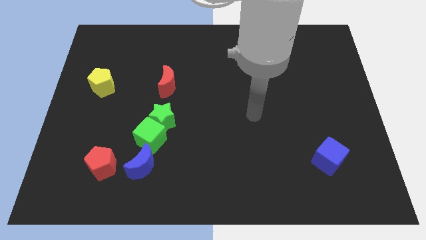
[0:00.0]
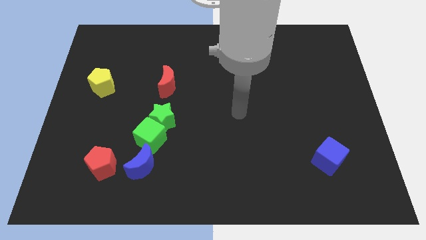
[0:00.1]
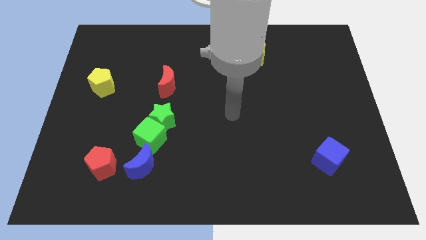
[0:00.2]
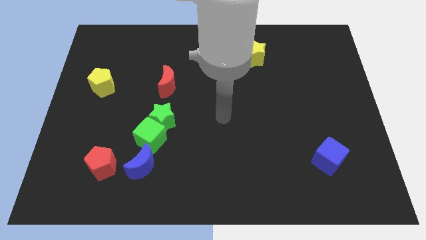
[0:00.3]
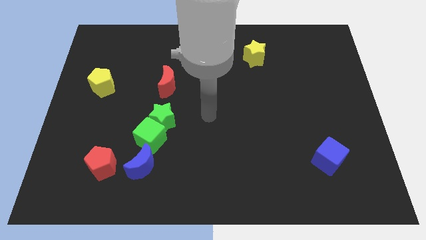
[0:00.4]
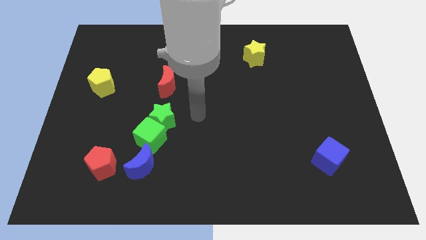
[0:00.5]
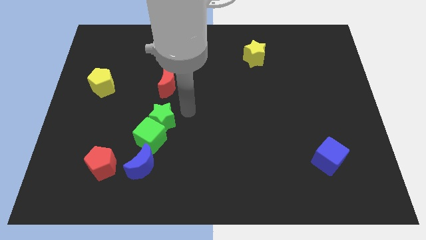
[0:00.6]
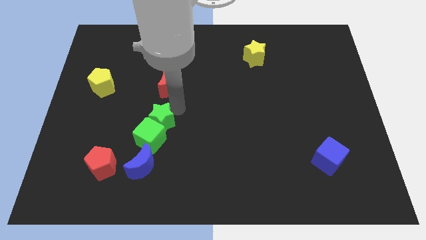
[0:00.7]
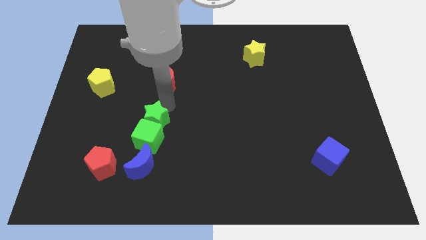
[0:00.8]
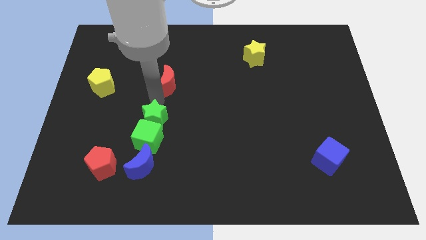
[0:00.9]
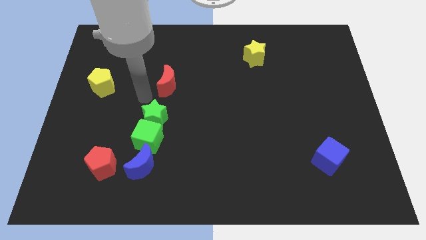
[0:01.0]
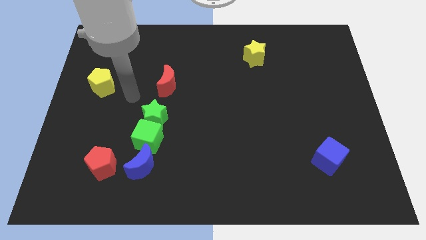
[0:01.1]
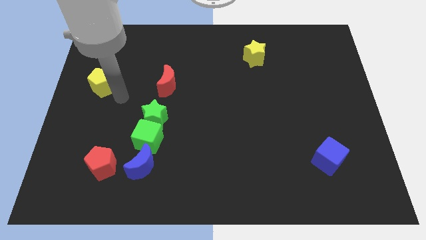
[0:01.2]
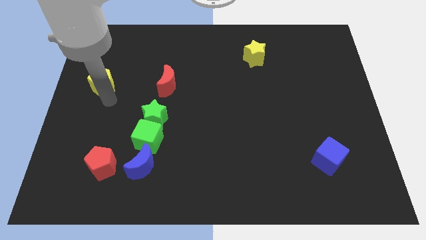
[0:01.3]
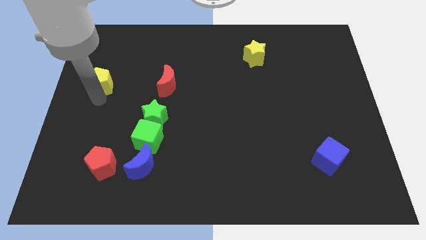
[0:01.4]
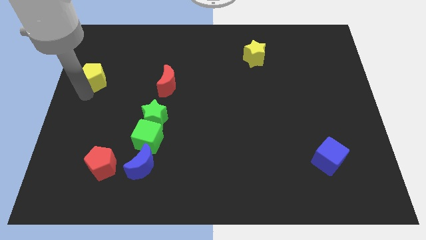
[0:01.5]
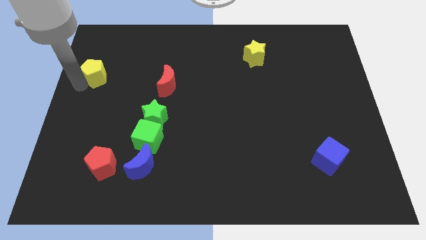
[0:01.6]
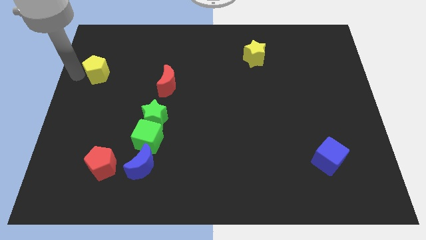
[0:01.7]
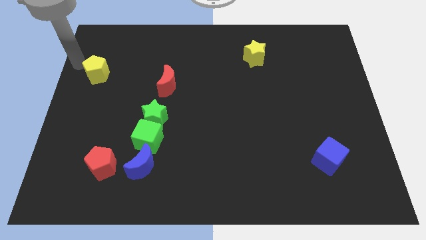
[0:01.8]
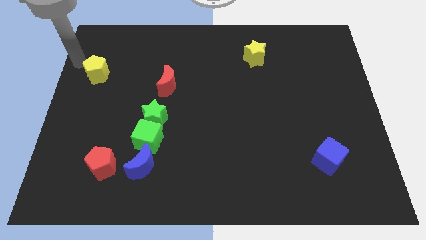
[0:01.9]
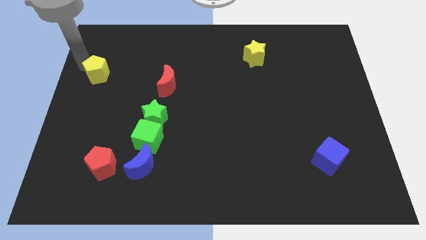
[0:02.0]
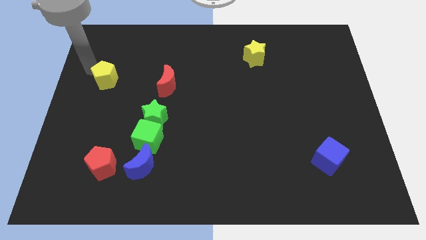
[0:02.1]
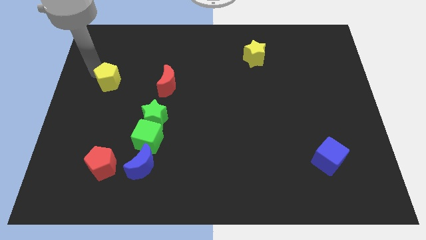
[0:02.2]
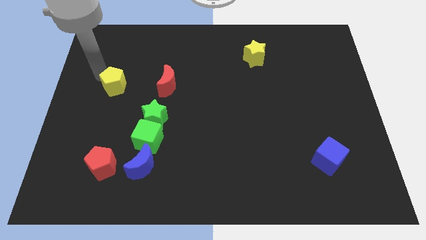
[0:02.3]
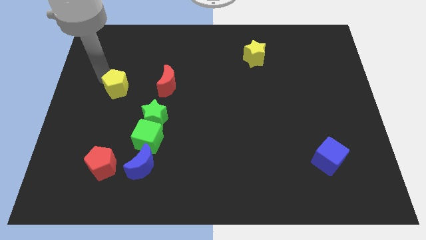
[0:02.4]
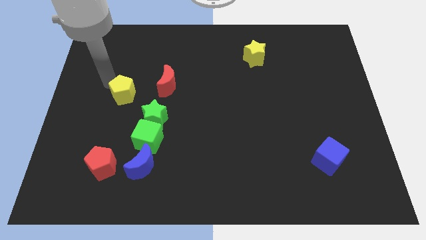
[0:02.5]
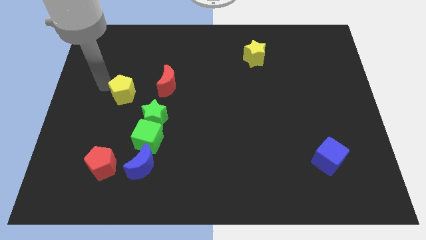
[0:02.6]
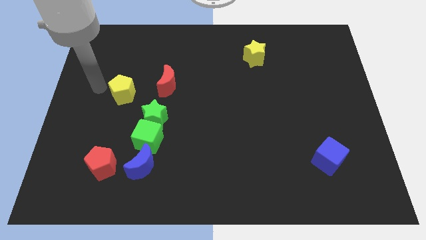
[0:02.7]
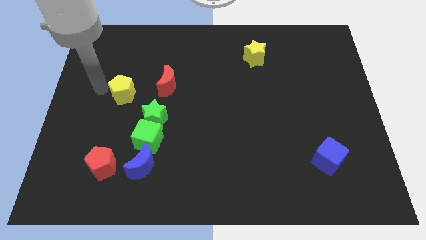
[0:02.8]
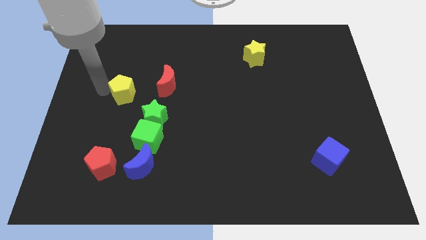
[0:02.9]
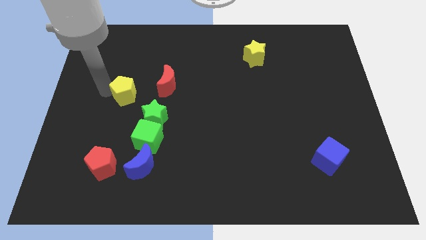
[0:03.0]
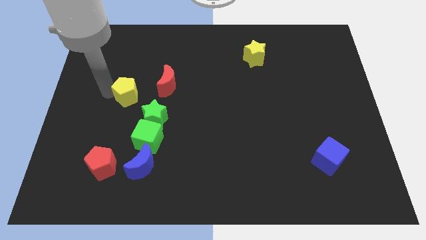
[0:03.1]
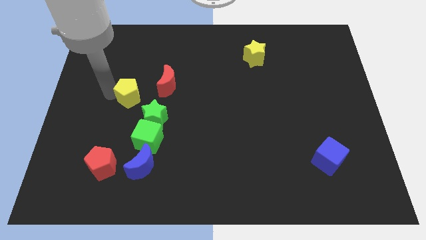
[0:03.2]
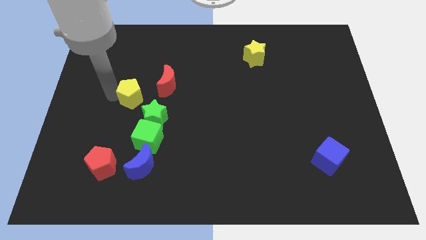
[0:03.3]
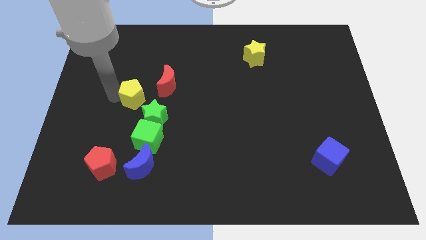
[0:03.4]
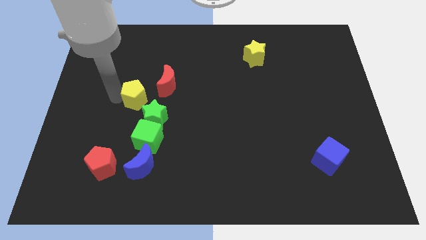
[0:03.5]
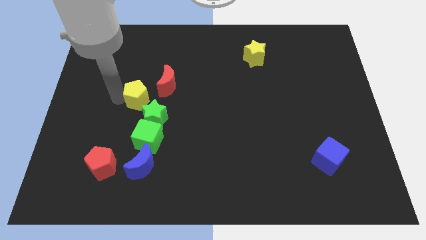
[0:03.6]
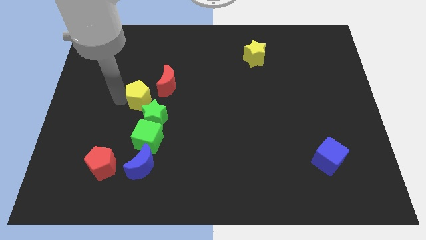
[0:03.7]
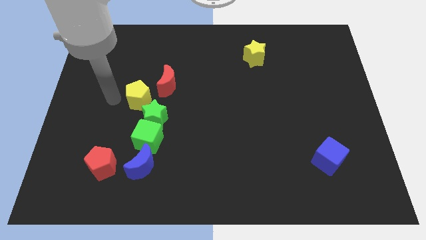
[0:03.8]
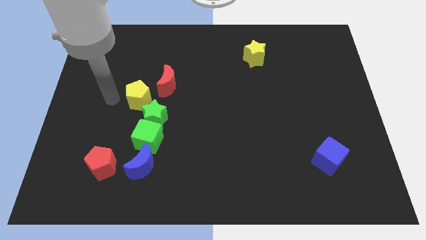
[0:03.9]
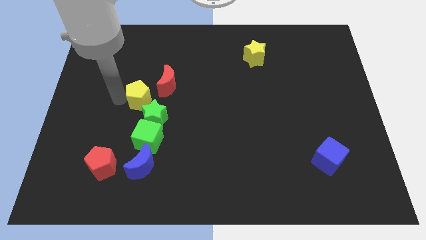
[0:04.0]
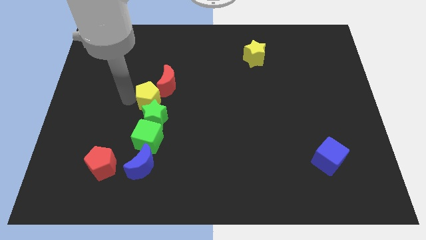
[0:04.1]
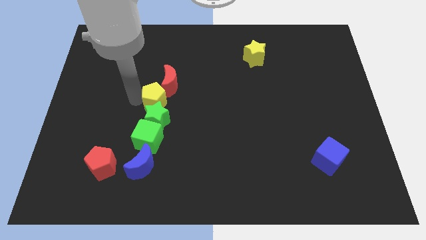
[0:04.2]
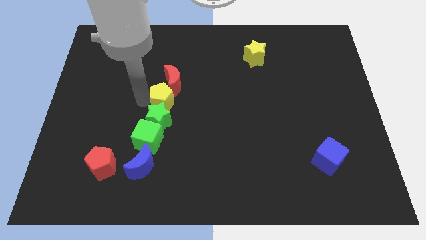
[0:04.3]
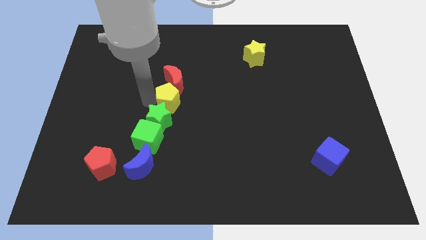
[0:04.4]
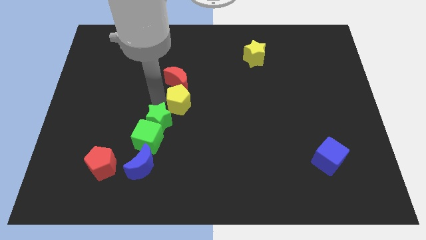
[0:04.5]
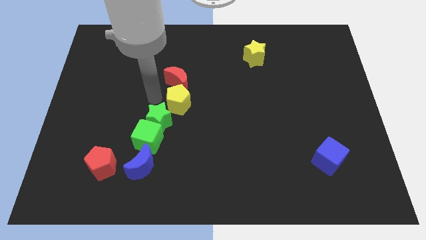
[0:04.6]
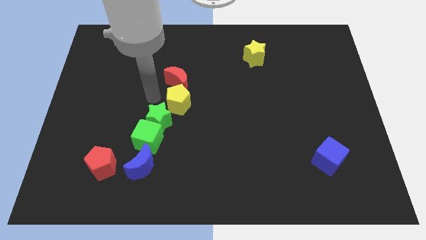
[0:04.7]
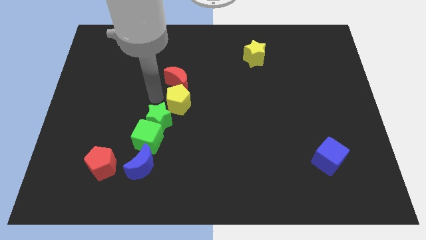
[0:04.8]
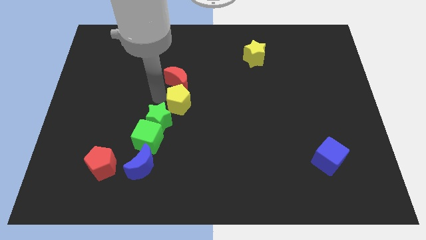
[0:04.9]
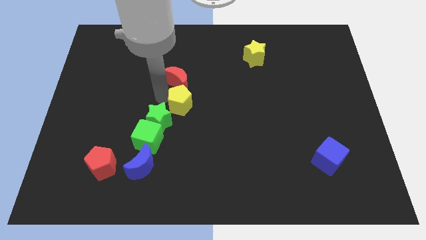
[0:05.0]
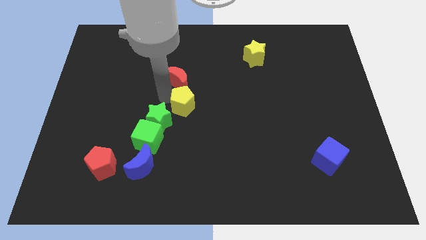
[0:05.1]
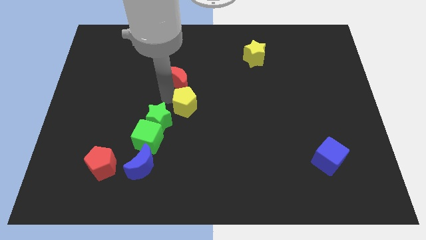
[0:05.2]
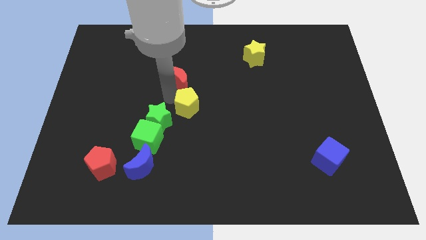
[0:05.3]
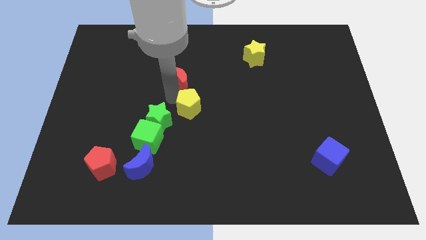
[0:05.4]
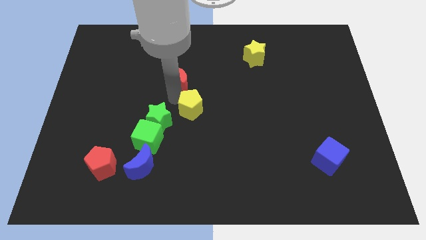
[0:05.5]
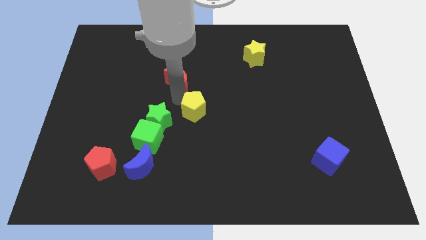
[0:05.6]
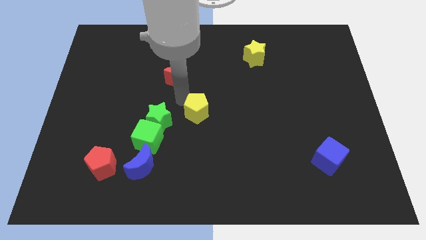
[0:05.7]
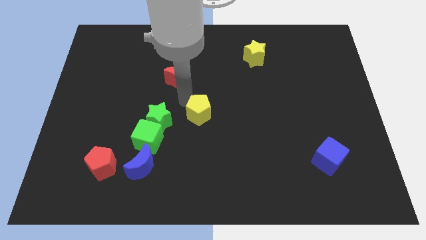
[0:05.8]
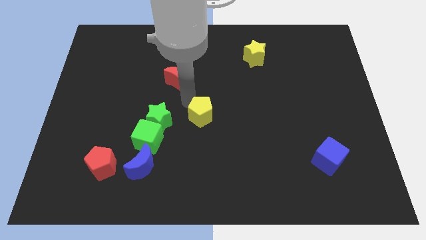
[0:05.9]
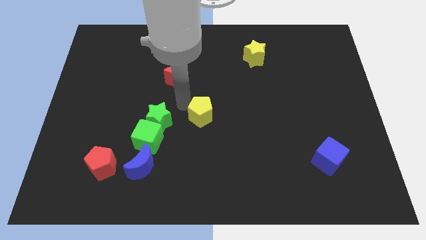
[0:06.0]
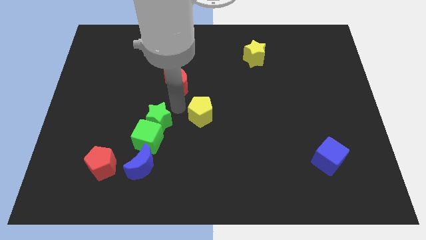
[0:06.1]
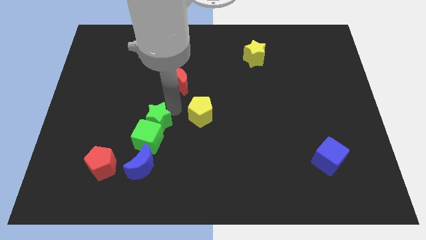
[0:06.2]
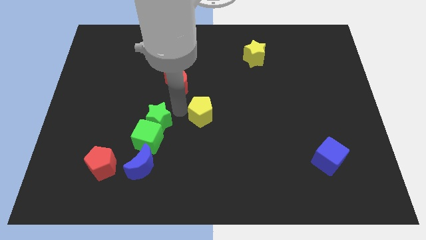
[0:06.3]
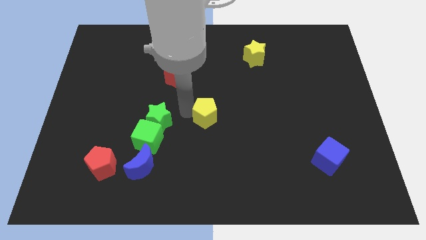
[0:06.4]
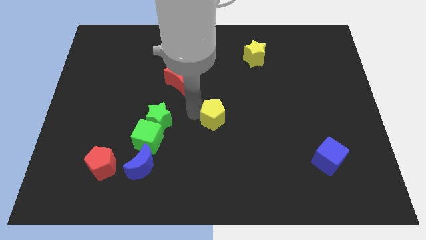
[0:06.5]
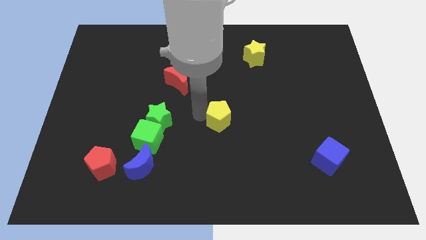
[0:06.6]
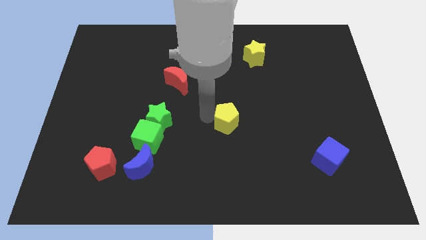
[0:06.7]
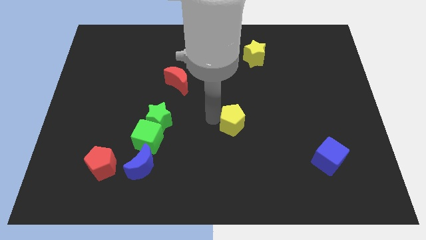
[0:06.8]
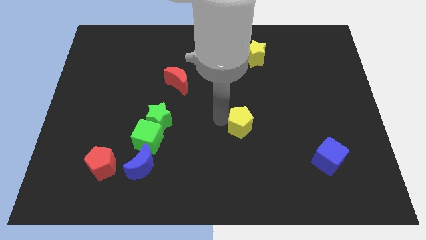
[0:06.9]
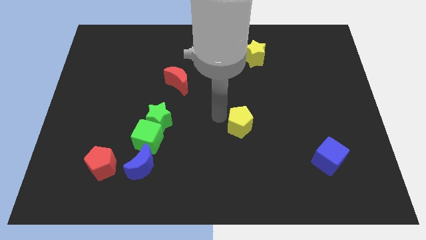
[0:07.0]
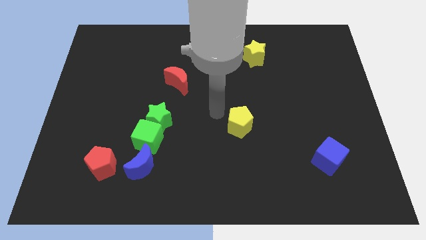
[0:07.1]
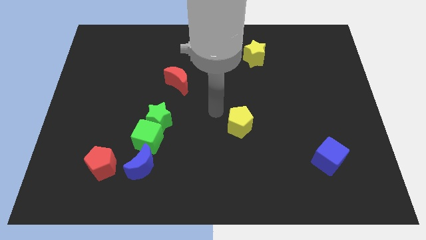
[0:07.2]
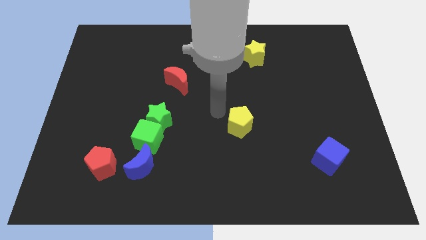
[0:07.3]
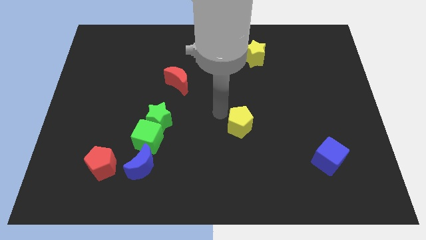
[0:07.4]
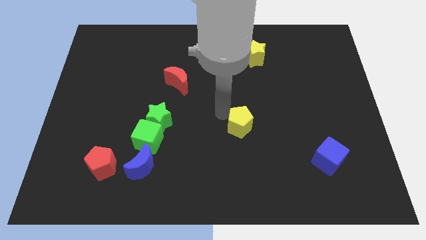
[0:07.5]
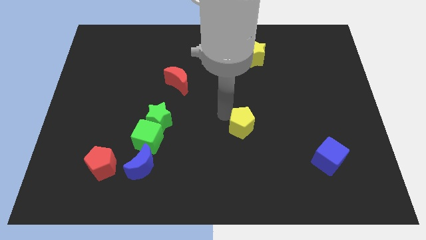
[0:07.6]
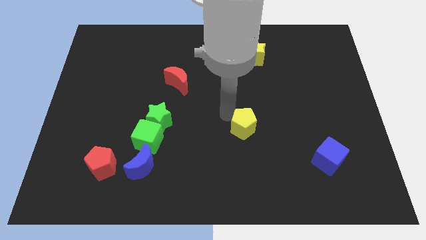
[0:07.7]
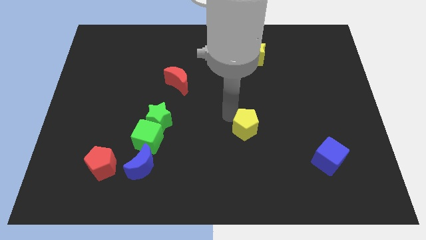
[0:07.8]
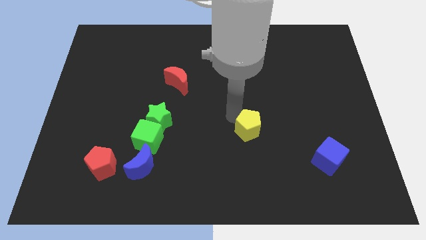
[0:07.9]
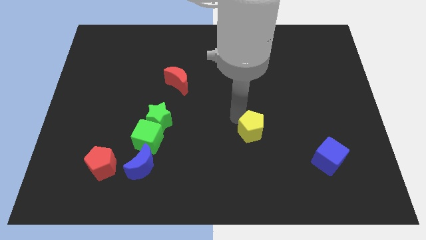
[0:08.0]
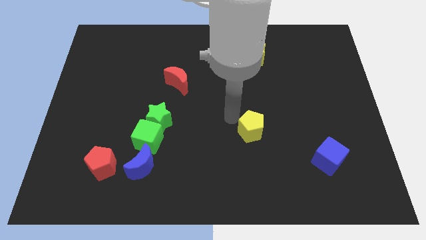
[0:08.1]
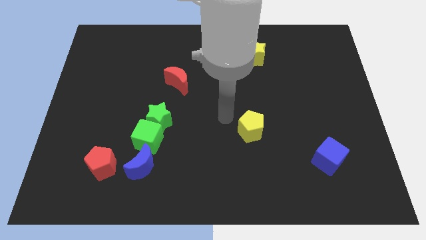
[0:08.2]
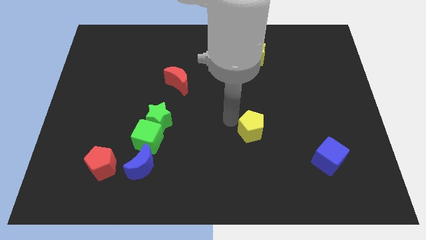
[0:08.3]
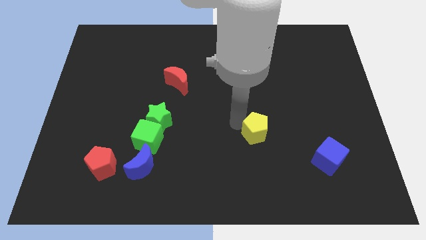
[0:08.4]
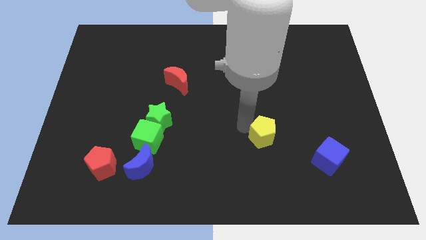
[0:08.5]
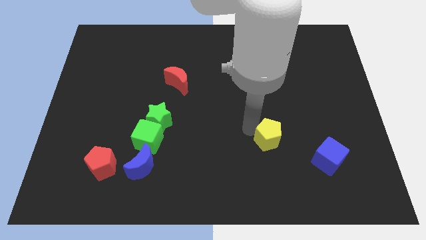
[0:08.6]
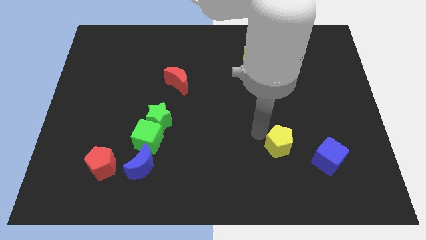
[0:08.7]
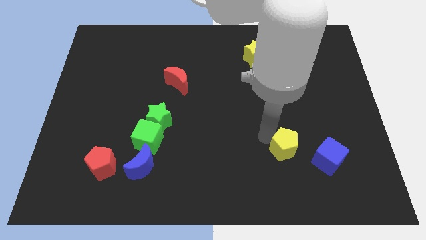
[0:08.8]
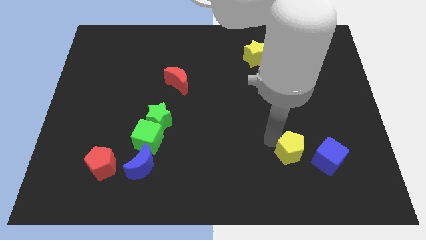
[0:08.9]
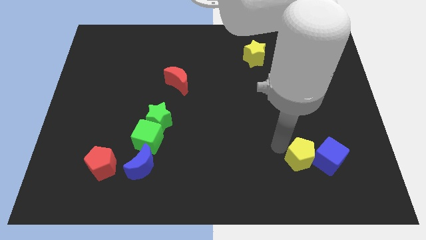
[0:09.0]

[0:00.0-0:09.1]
move the yellow pentagon to the blue cube
